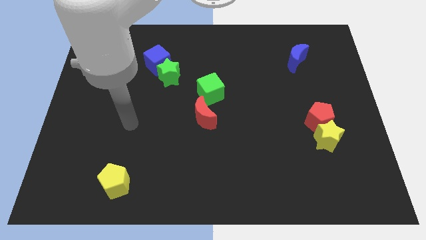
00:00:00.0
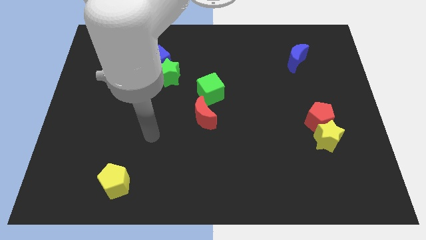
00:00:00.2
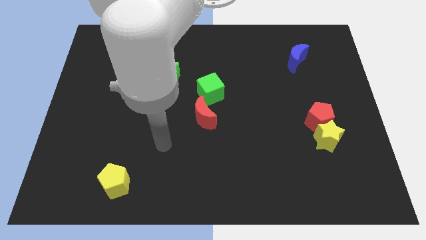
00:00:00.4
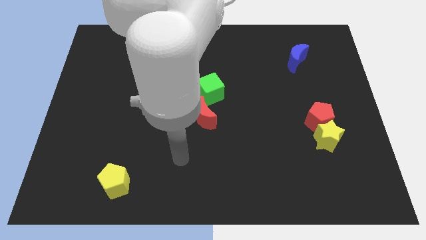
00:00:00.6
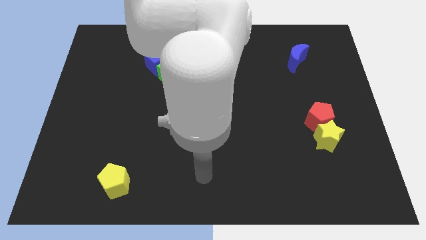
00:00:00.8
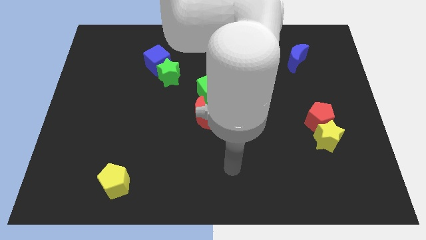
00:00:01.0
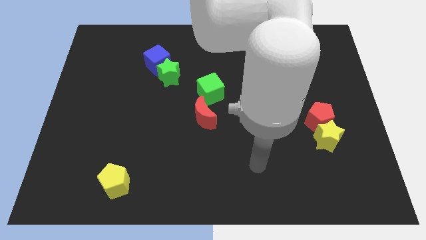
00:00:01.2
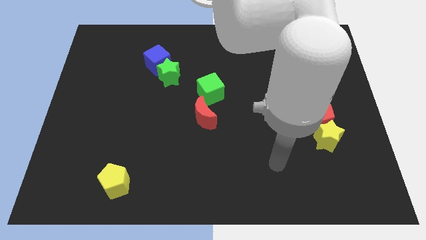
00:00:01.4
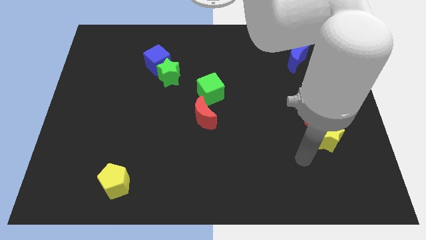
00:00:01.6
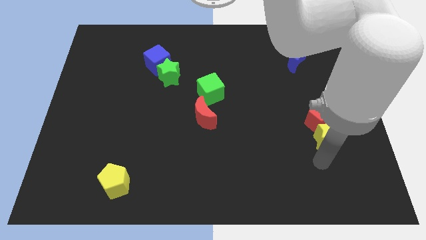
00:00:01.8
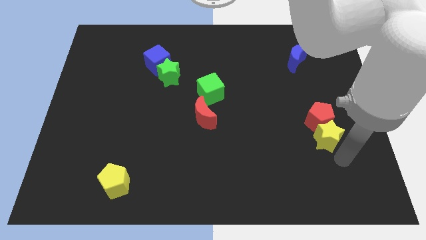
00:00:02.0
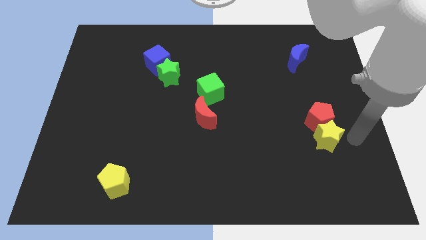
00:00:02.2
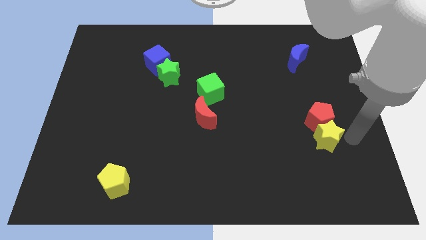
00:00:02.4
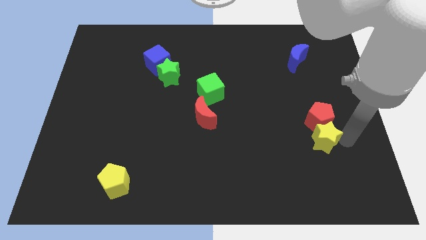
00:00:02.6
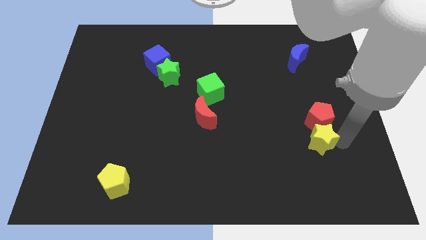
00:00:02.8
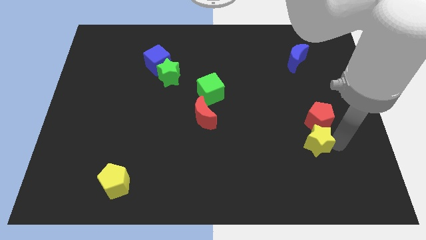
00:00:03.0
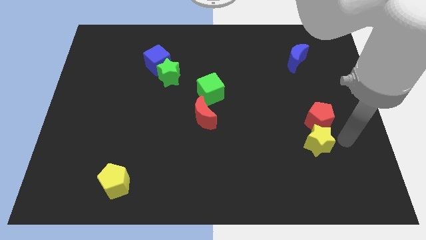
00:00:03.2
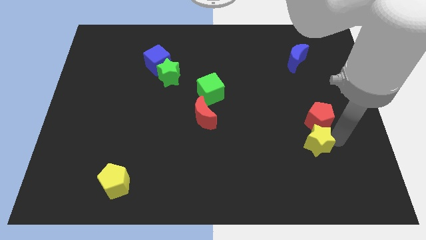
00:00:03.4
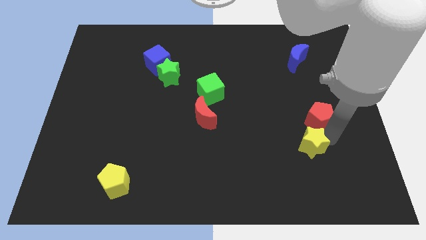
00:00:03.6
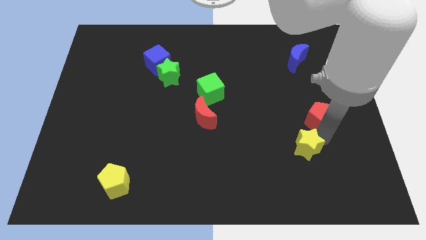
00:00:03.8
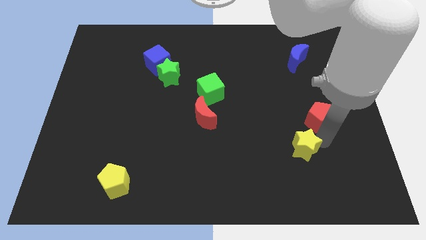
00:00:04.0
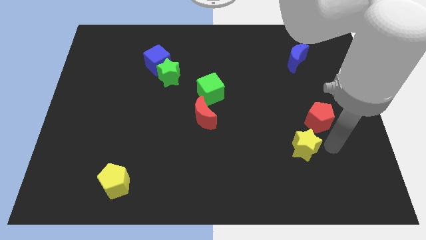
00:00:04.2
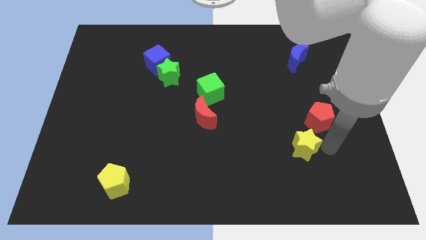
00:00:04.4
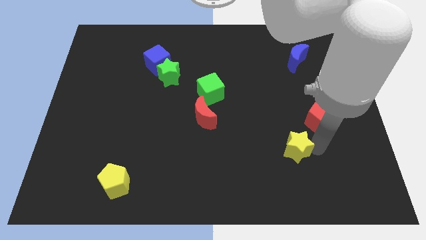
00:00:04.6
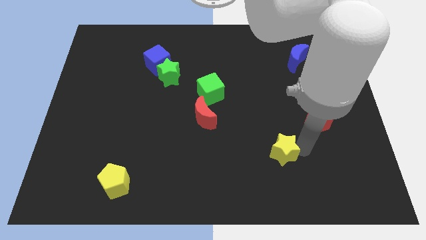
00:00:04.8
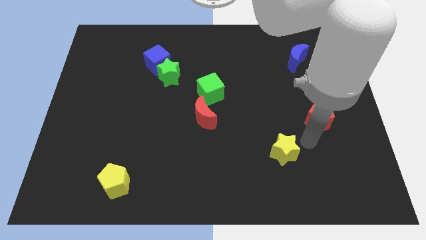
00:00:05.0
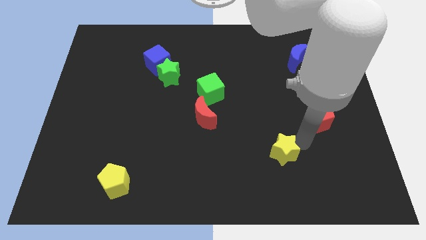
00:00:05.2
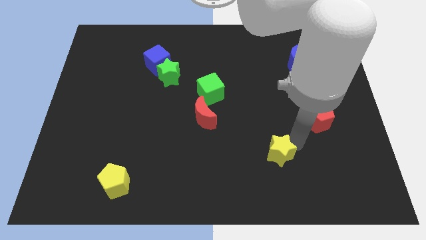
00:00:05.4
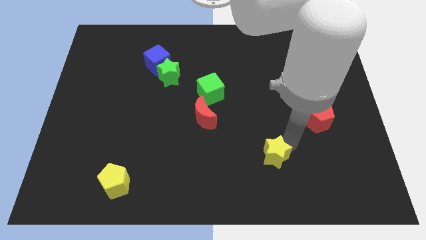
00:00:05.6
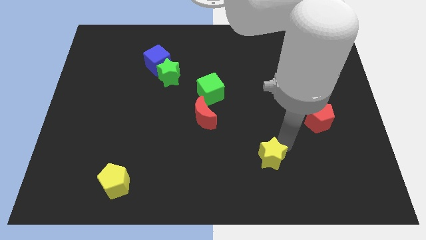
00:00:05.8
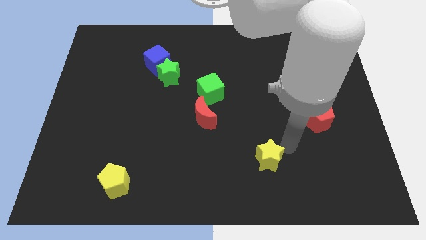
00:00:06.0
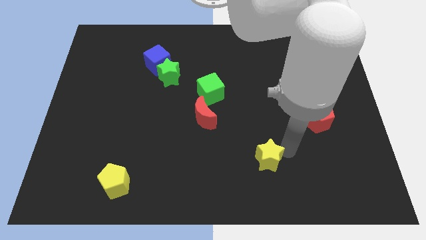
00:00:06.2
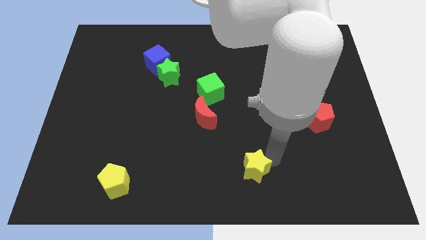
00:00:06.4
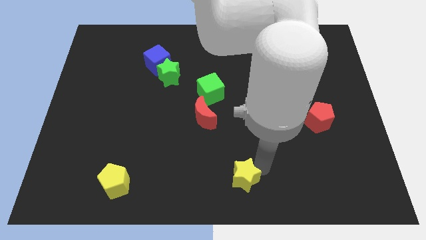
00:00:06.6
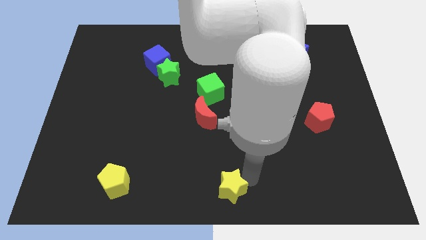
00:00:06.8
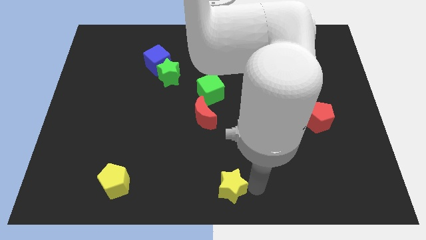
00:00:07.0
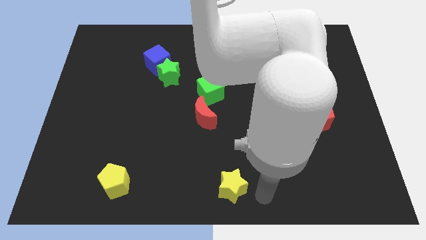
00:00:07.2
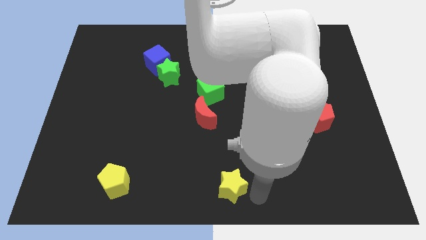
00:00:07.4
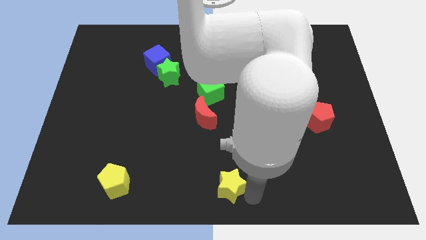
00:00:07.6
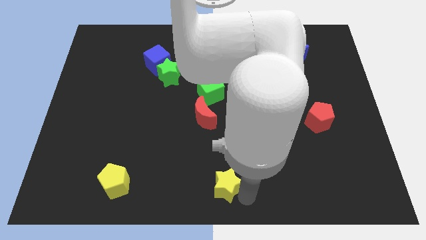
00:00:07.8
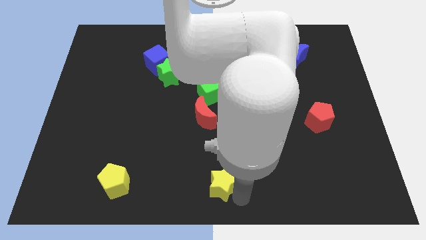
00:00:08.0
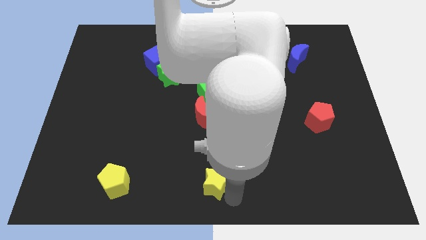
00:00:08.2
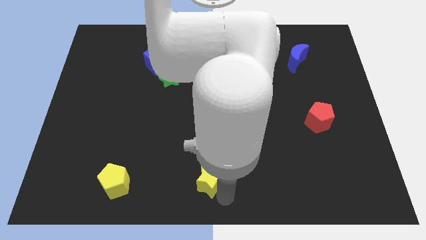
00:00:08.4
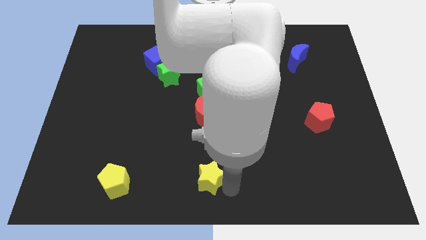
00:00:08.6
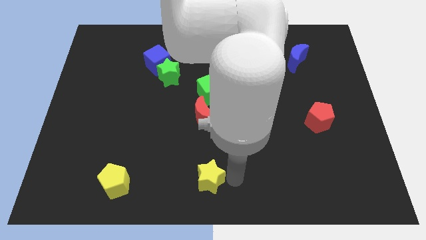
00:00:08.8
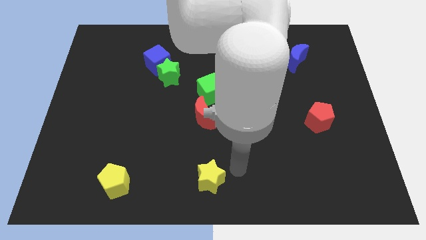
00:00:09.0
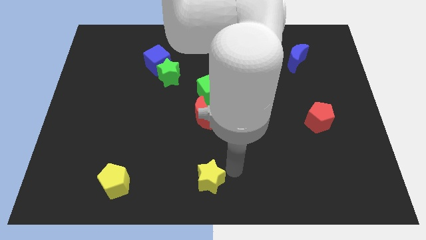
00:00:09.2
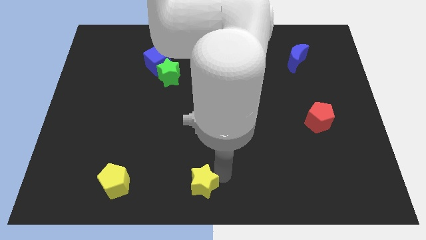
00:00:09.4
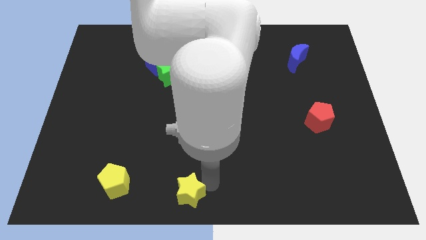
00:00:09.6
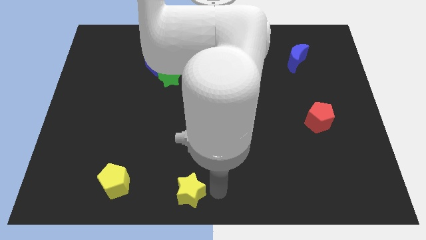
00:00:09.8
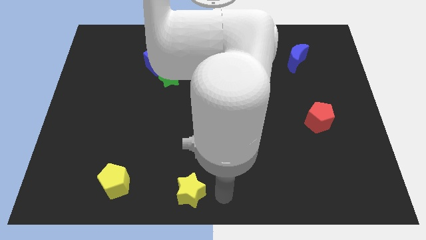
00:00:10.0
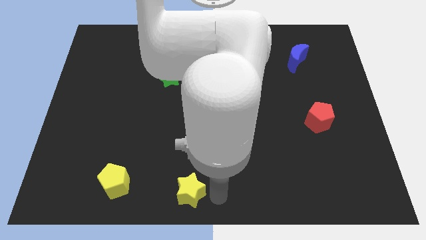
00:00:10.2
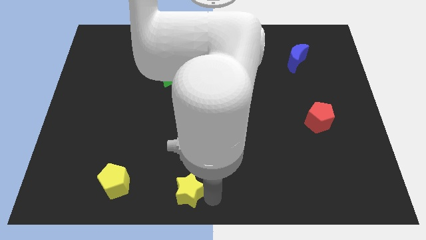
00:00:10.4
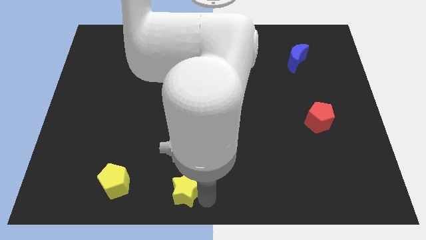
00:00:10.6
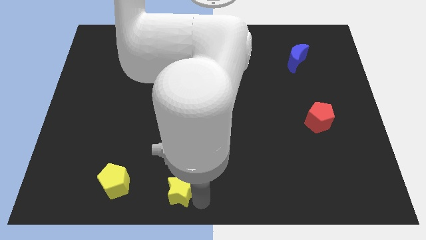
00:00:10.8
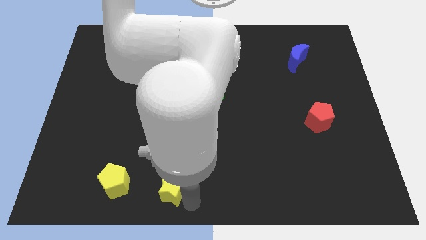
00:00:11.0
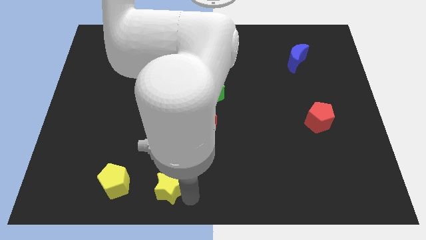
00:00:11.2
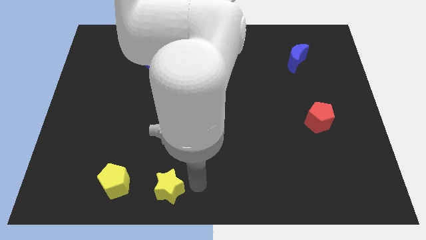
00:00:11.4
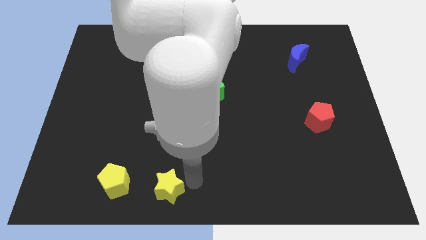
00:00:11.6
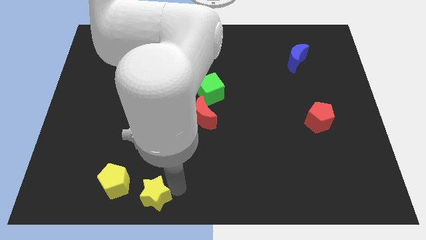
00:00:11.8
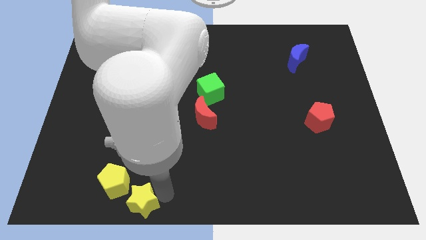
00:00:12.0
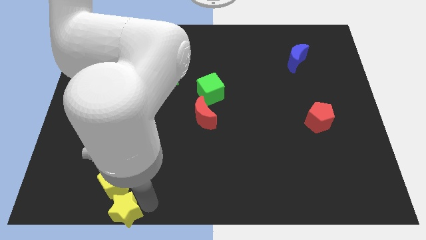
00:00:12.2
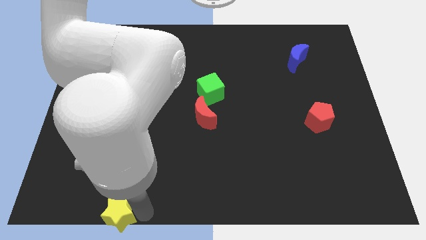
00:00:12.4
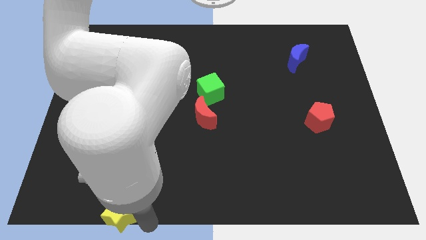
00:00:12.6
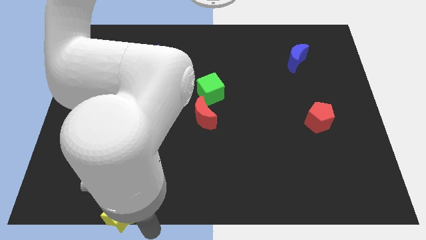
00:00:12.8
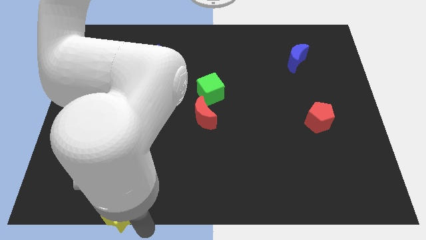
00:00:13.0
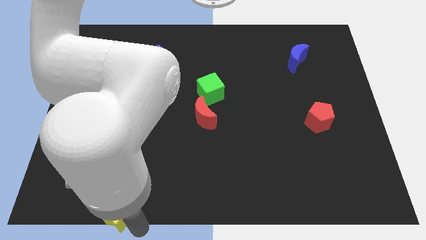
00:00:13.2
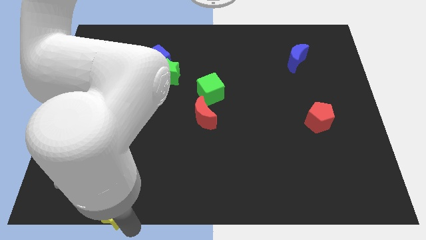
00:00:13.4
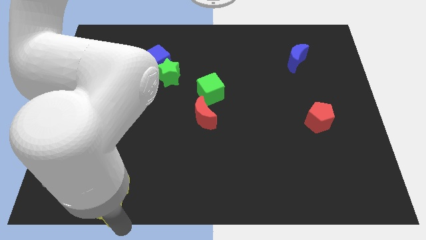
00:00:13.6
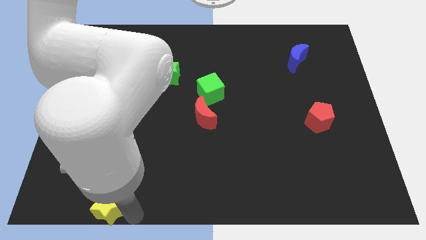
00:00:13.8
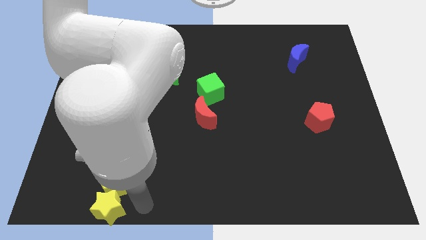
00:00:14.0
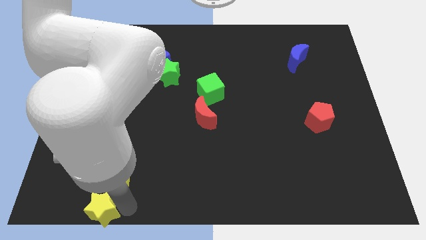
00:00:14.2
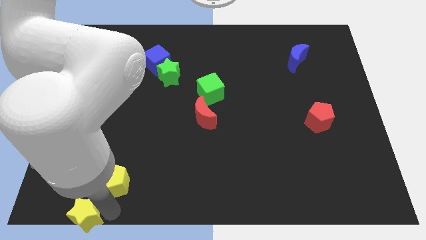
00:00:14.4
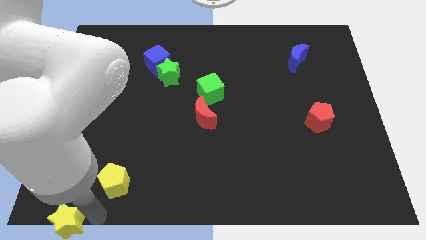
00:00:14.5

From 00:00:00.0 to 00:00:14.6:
push the yellow star to the bottom left corner
